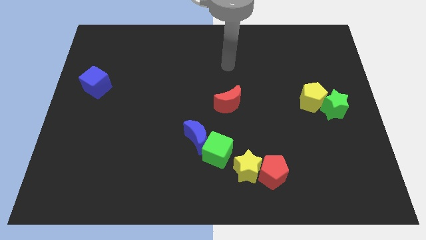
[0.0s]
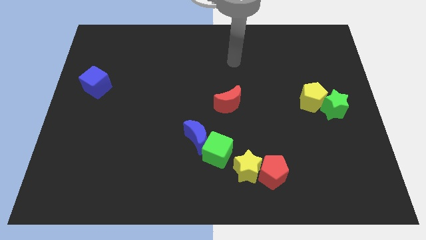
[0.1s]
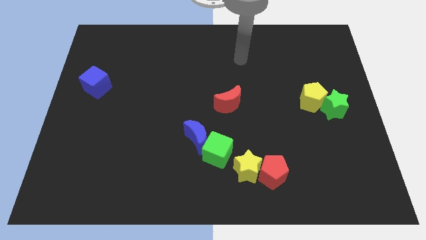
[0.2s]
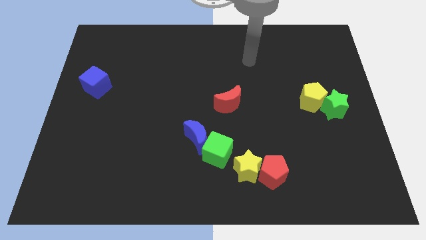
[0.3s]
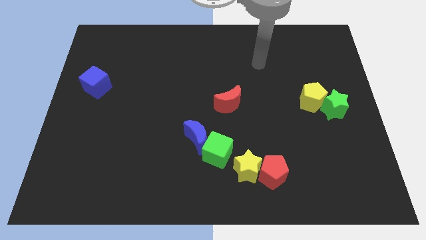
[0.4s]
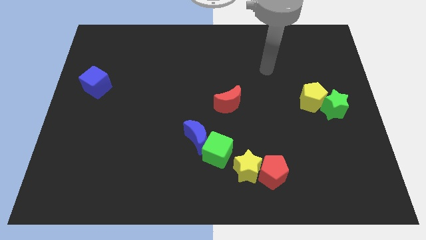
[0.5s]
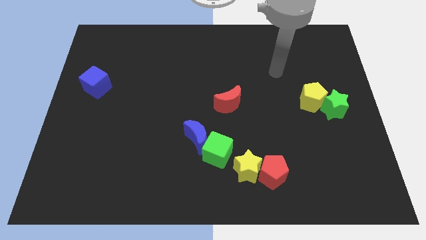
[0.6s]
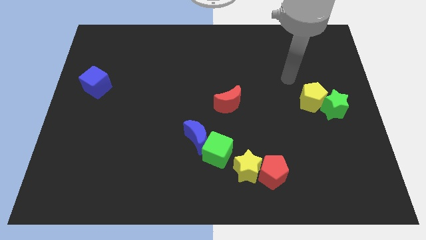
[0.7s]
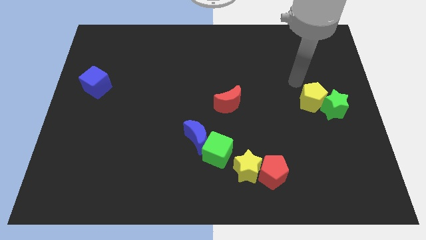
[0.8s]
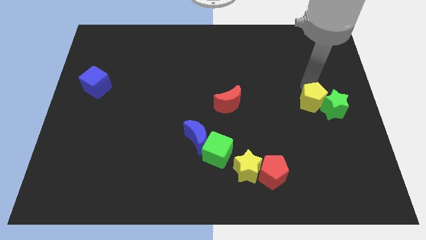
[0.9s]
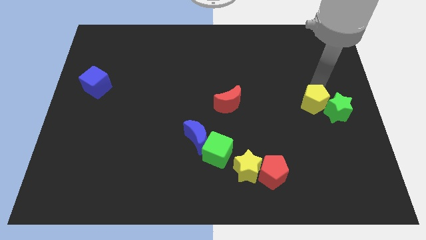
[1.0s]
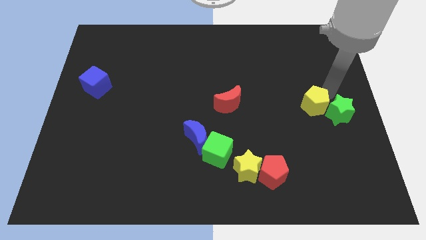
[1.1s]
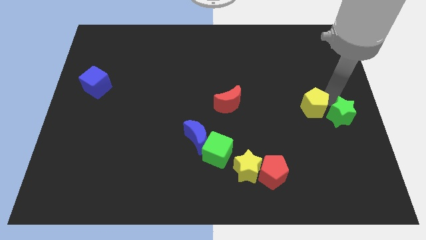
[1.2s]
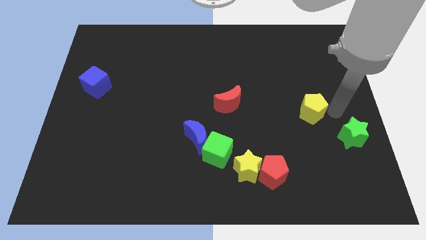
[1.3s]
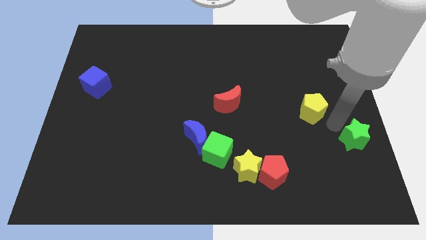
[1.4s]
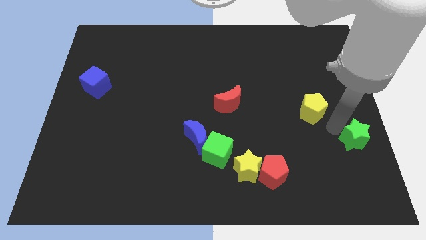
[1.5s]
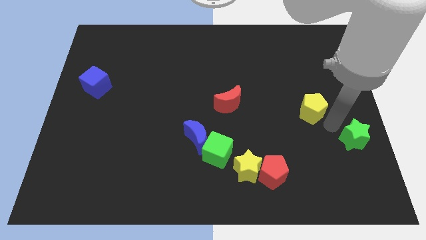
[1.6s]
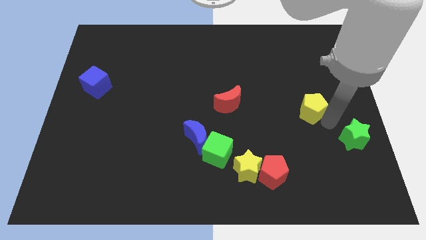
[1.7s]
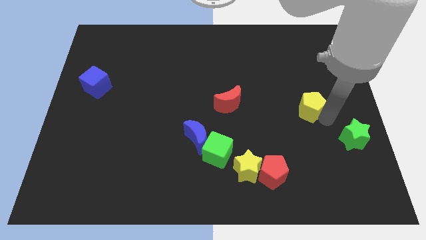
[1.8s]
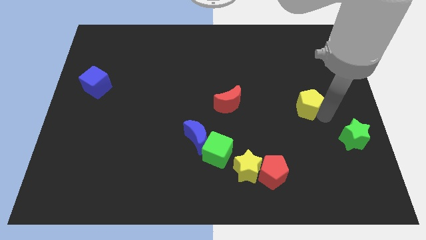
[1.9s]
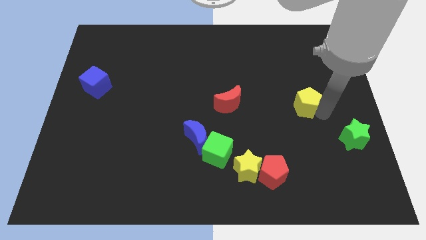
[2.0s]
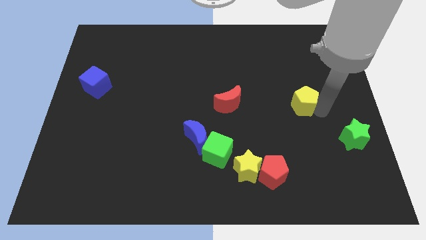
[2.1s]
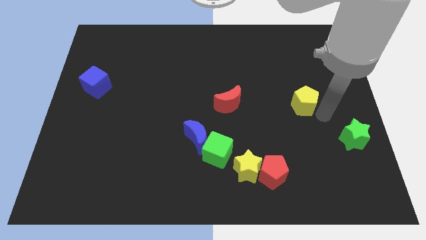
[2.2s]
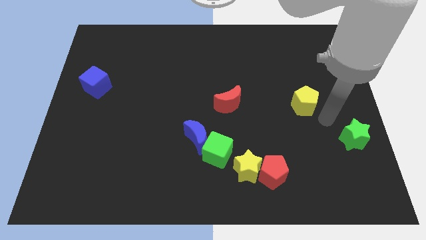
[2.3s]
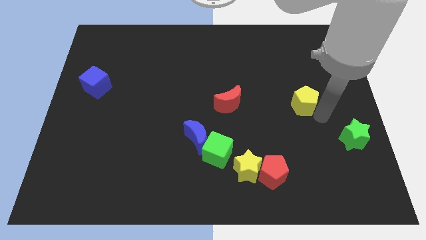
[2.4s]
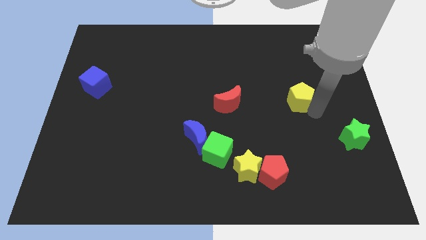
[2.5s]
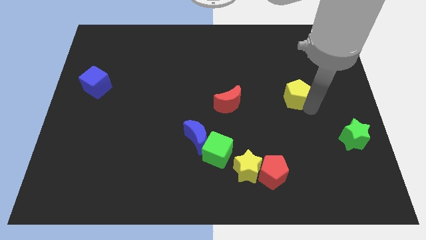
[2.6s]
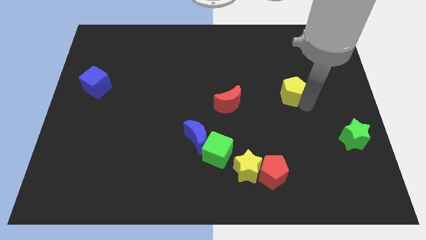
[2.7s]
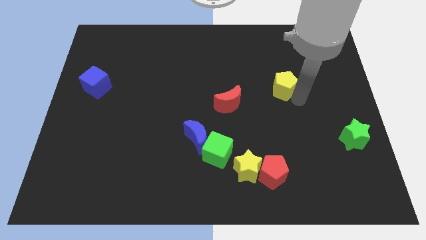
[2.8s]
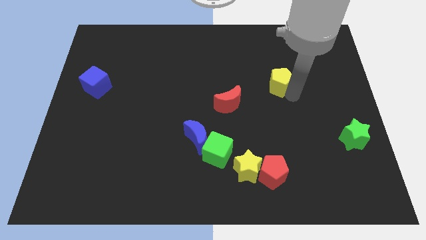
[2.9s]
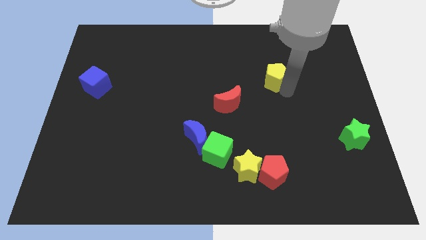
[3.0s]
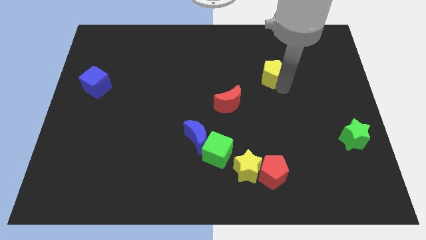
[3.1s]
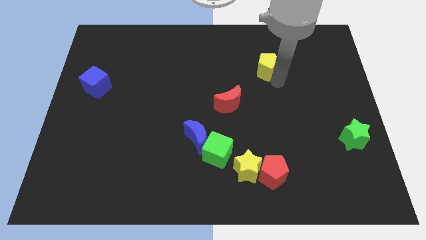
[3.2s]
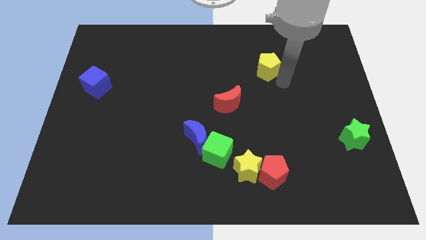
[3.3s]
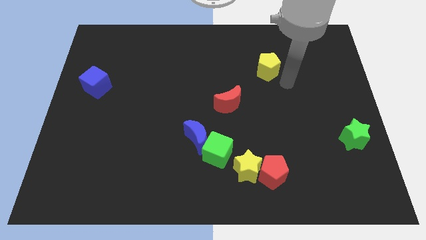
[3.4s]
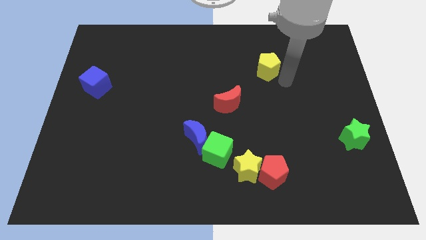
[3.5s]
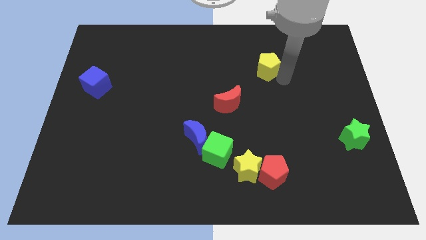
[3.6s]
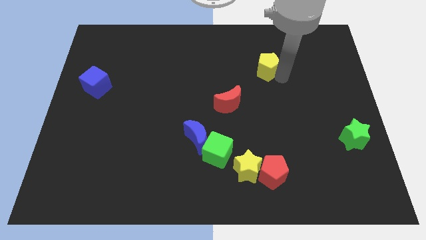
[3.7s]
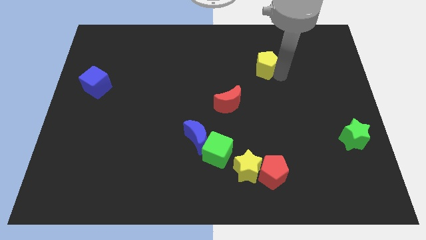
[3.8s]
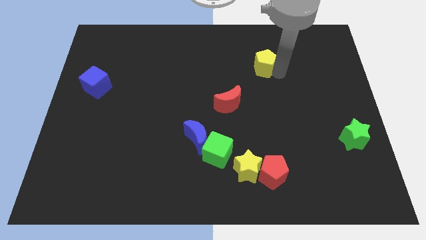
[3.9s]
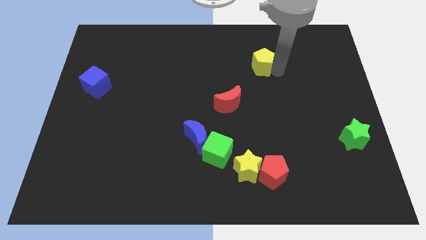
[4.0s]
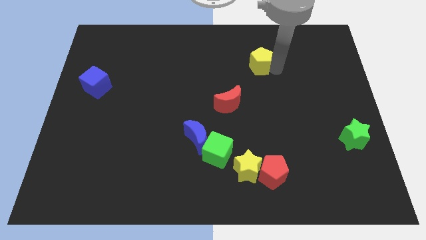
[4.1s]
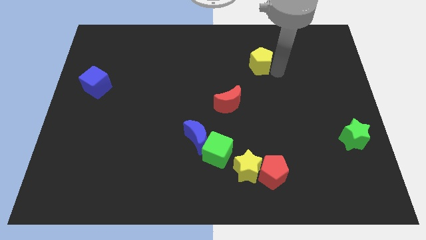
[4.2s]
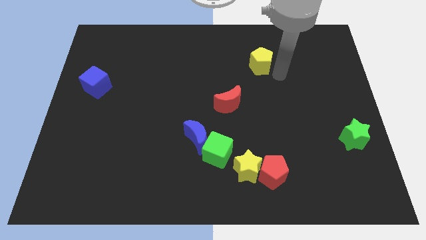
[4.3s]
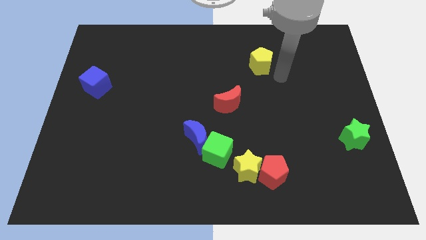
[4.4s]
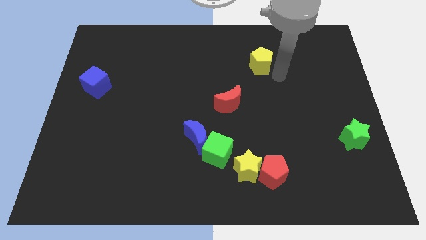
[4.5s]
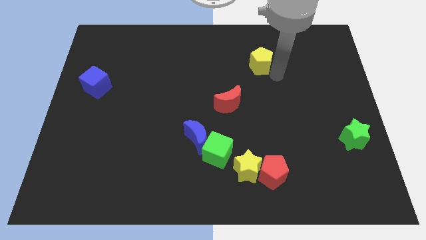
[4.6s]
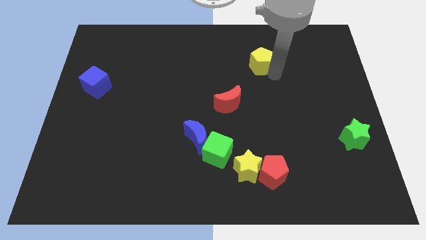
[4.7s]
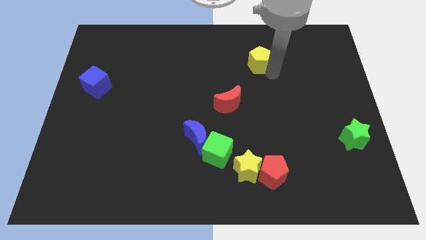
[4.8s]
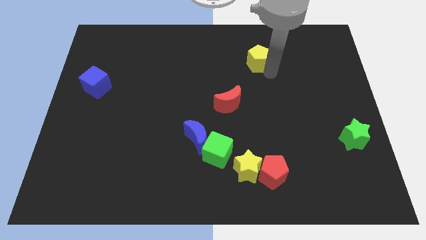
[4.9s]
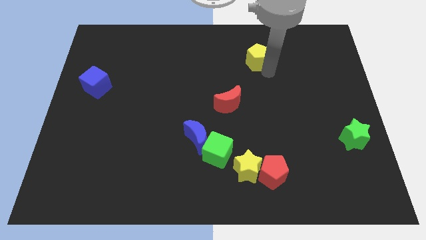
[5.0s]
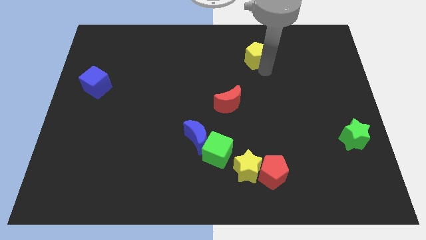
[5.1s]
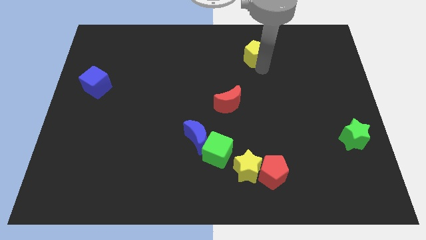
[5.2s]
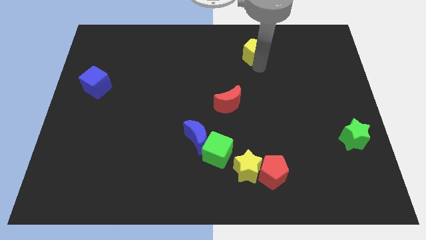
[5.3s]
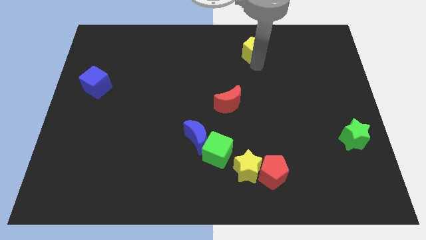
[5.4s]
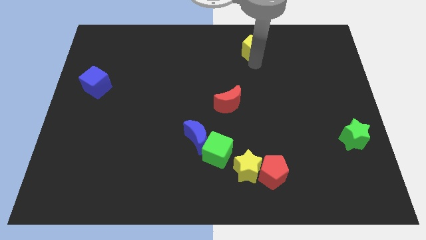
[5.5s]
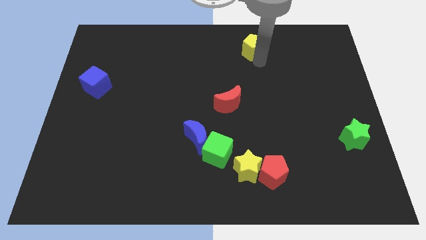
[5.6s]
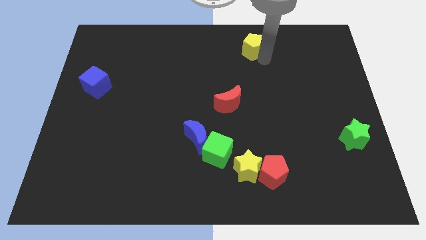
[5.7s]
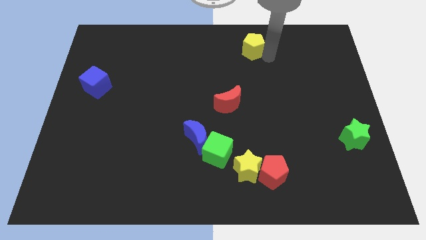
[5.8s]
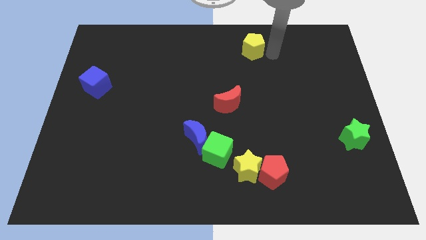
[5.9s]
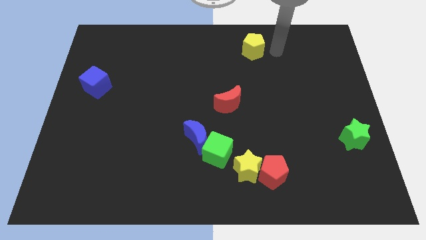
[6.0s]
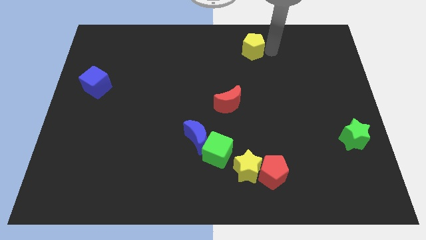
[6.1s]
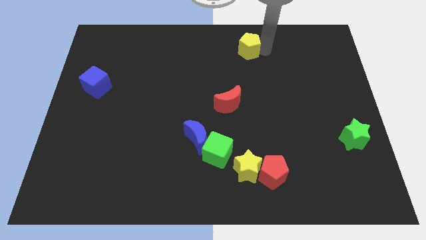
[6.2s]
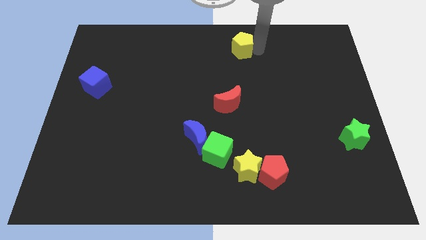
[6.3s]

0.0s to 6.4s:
move the yellow pentagon to the top side
